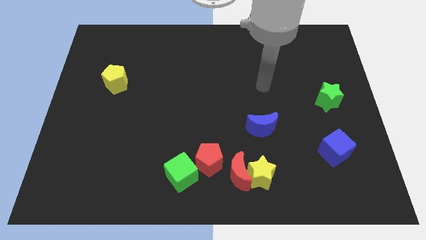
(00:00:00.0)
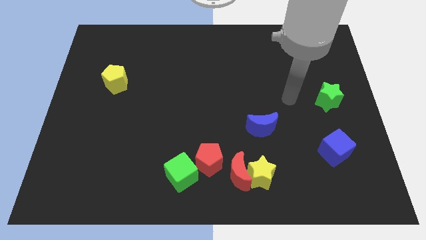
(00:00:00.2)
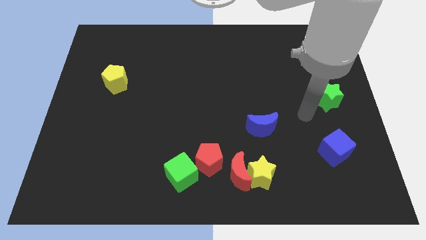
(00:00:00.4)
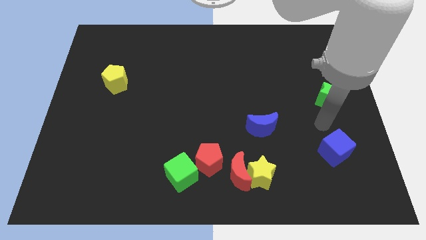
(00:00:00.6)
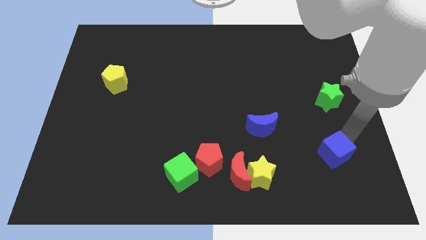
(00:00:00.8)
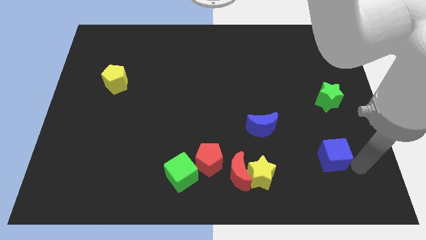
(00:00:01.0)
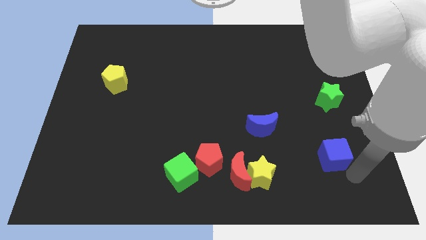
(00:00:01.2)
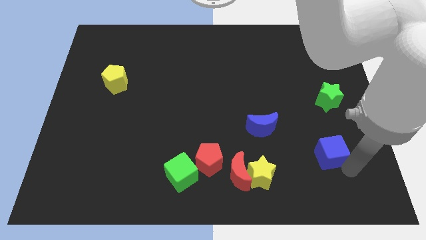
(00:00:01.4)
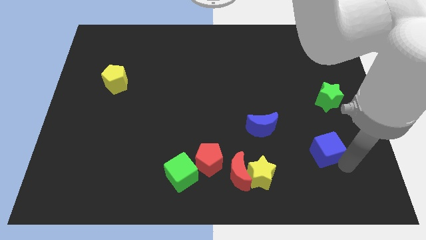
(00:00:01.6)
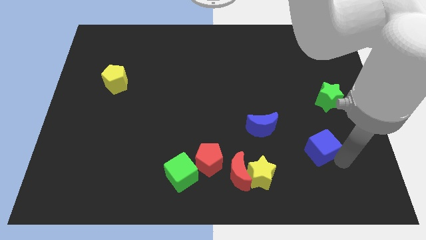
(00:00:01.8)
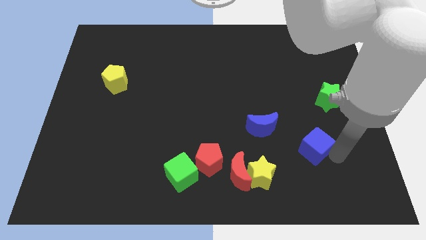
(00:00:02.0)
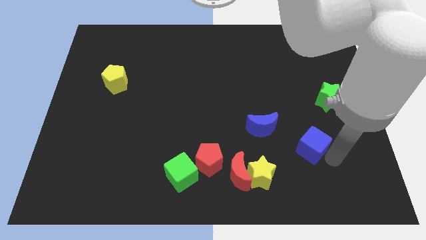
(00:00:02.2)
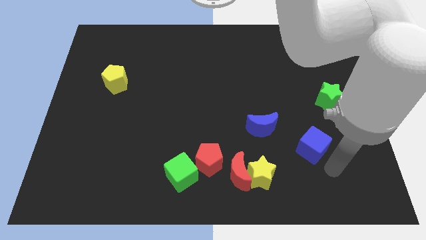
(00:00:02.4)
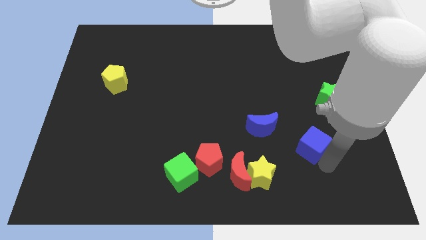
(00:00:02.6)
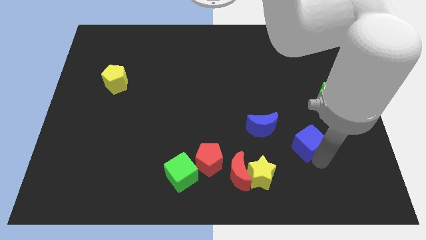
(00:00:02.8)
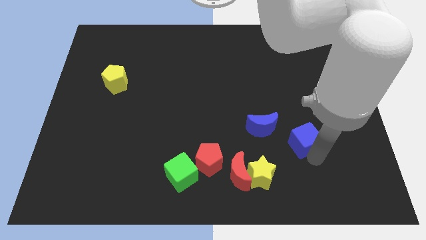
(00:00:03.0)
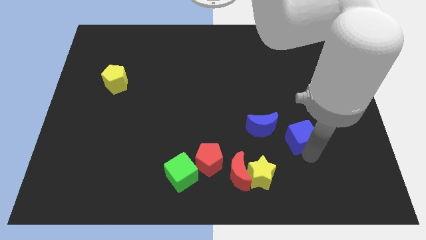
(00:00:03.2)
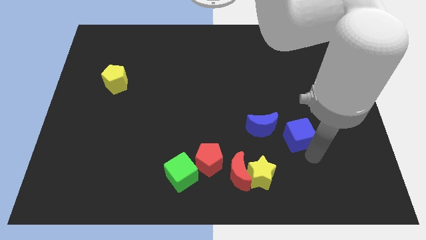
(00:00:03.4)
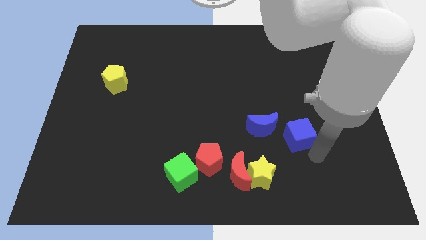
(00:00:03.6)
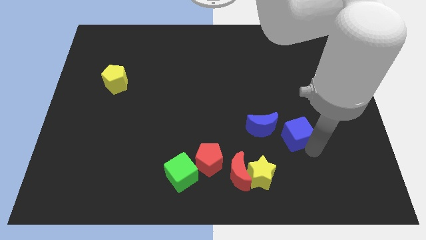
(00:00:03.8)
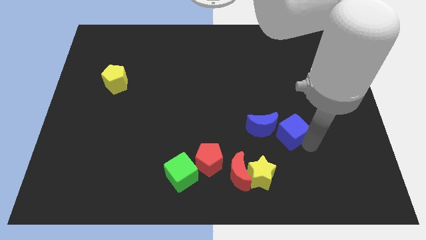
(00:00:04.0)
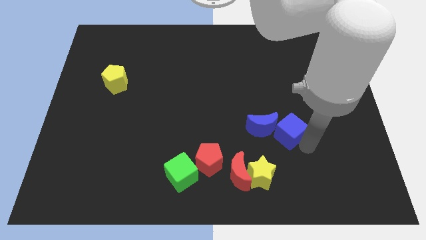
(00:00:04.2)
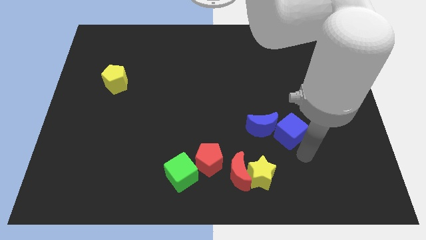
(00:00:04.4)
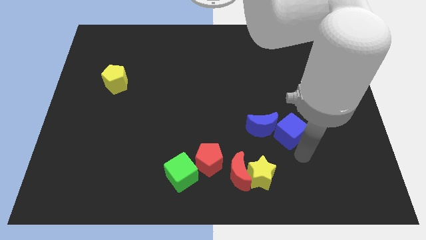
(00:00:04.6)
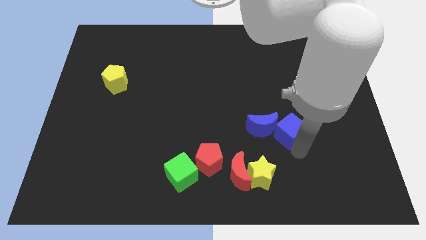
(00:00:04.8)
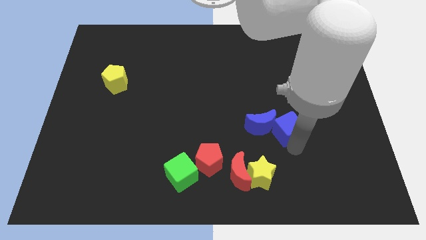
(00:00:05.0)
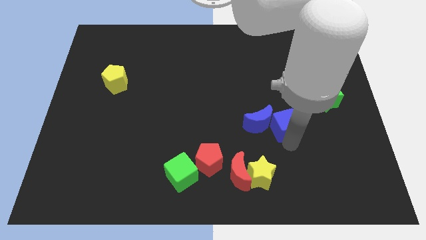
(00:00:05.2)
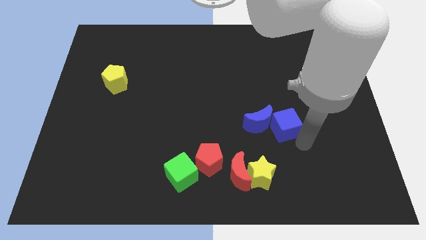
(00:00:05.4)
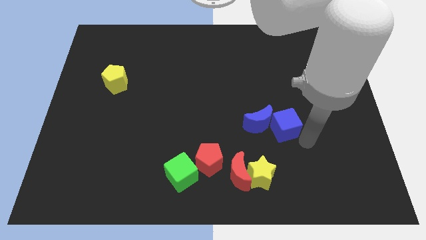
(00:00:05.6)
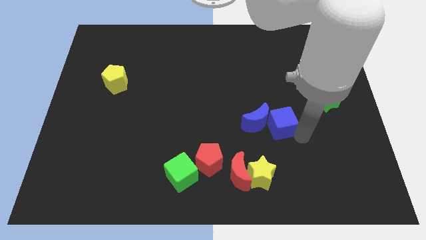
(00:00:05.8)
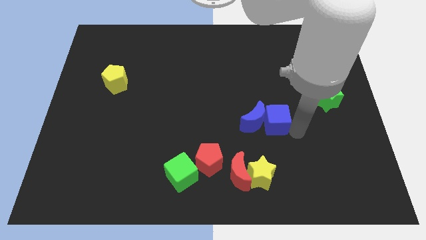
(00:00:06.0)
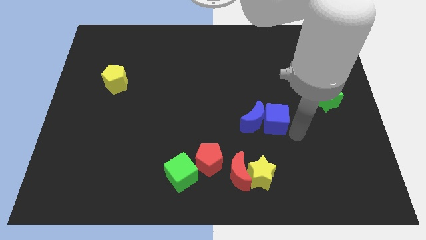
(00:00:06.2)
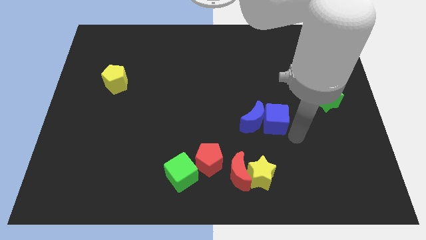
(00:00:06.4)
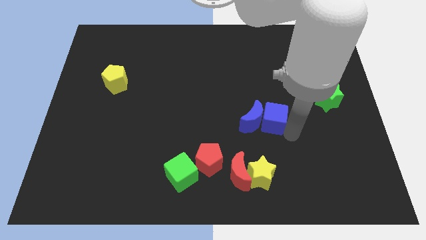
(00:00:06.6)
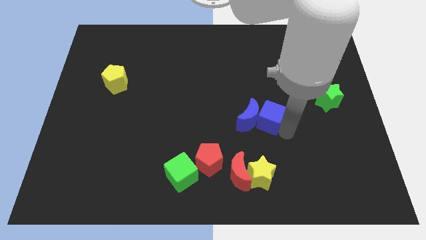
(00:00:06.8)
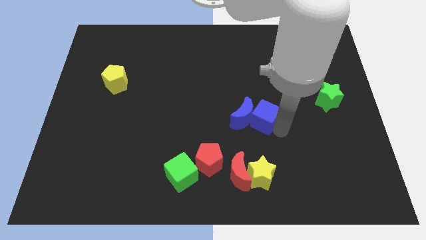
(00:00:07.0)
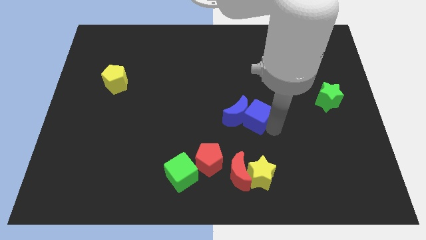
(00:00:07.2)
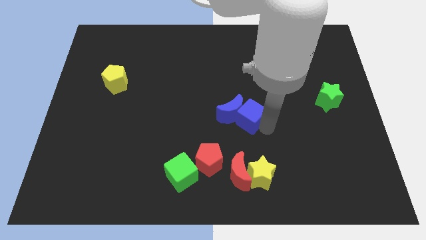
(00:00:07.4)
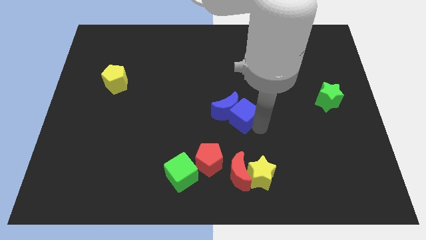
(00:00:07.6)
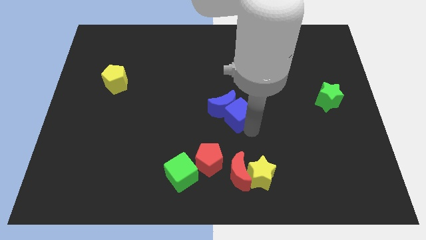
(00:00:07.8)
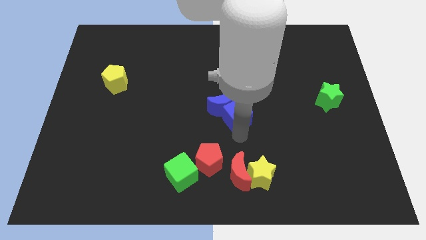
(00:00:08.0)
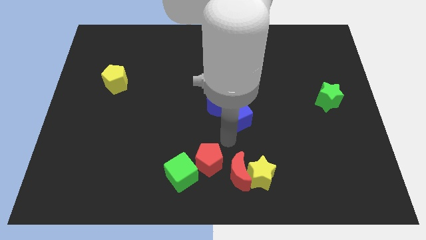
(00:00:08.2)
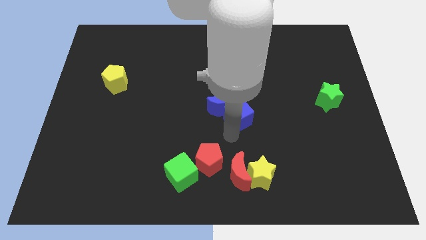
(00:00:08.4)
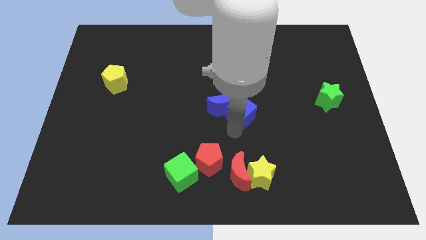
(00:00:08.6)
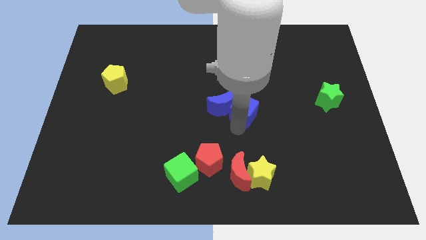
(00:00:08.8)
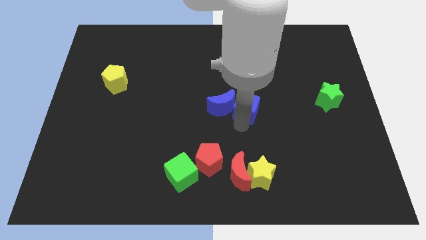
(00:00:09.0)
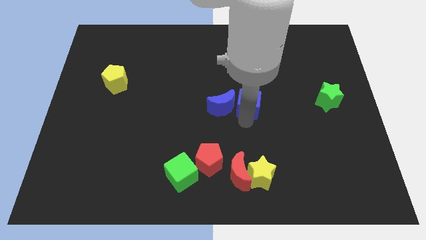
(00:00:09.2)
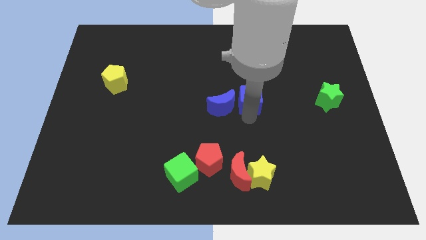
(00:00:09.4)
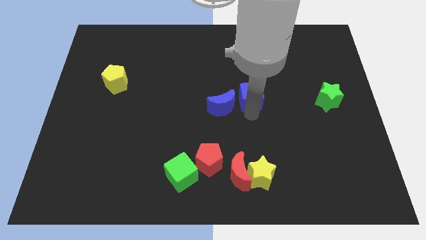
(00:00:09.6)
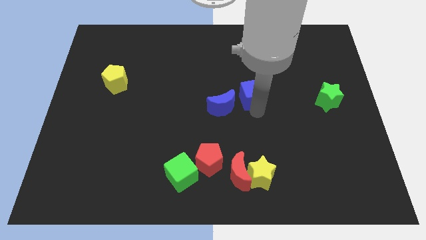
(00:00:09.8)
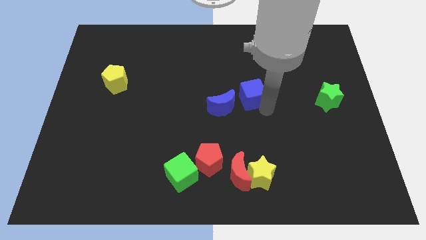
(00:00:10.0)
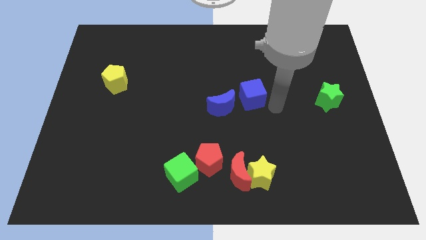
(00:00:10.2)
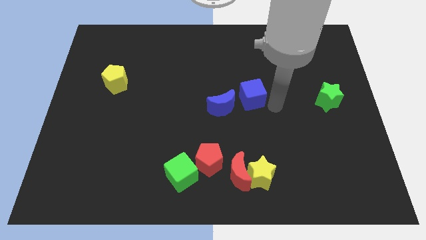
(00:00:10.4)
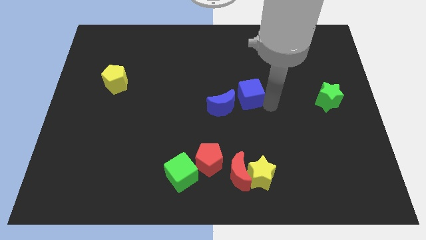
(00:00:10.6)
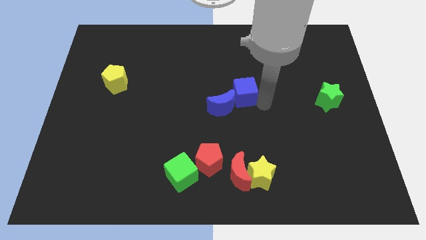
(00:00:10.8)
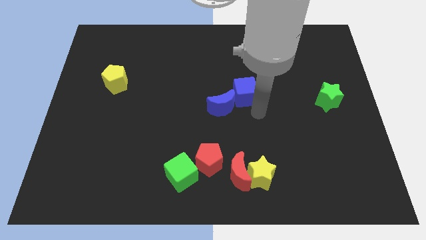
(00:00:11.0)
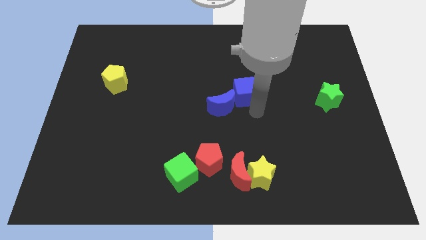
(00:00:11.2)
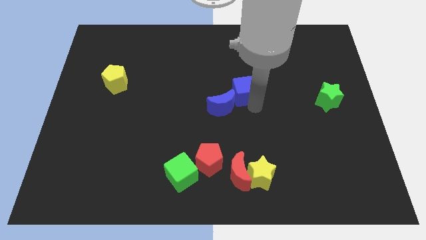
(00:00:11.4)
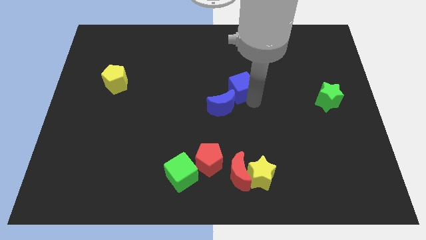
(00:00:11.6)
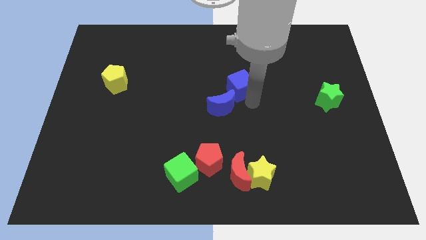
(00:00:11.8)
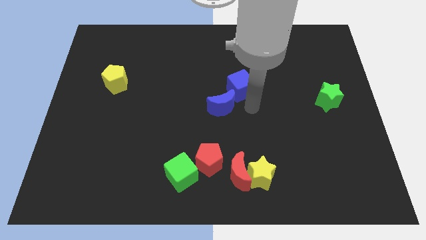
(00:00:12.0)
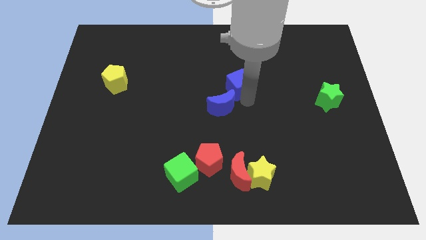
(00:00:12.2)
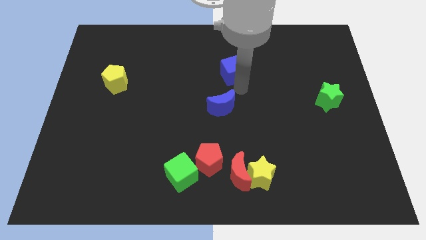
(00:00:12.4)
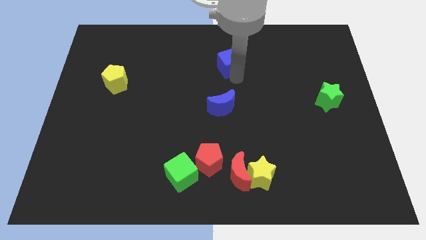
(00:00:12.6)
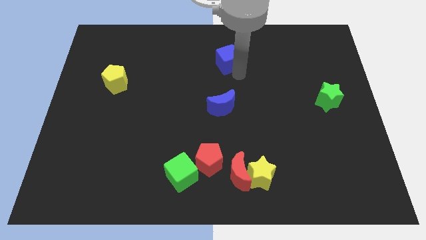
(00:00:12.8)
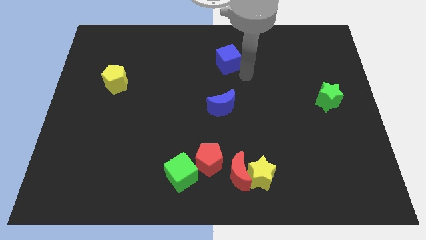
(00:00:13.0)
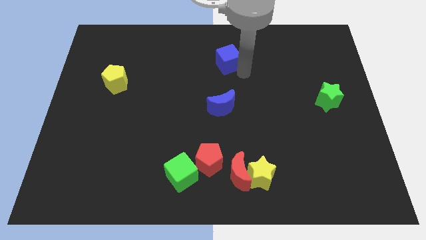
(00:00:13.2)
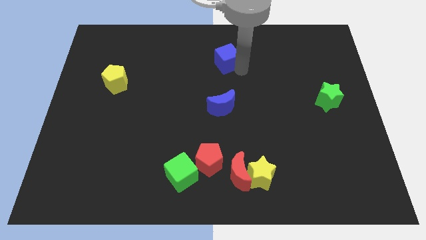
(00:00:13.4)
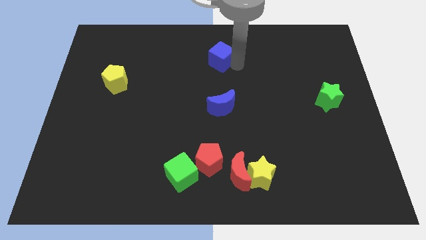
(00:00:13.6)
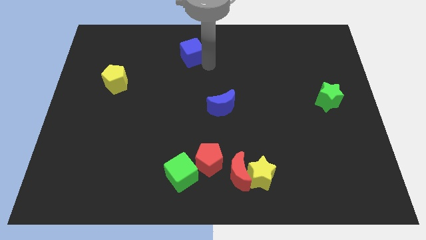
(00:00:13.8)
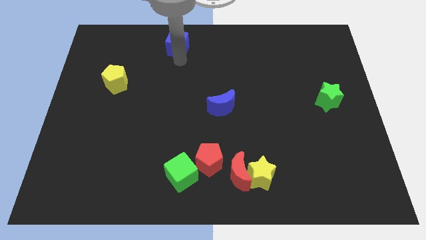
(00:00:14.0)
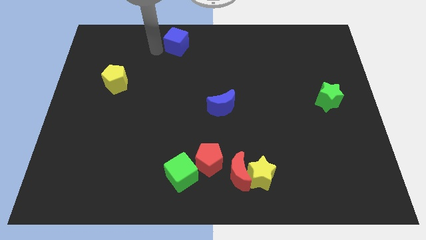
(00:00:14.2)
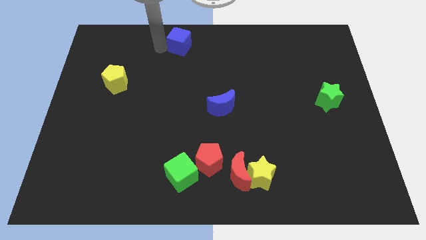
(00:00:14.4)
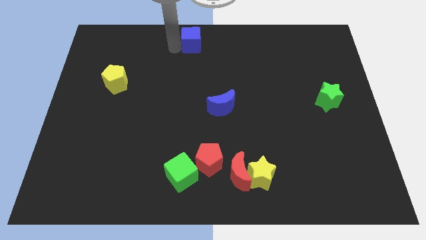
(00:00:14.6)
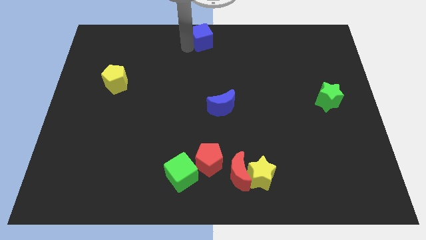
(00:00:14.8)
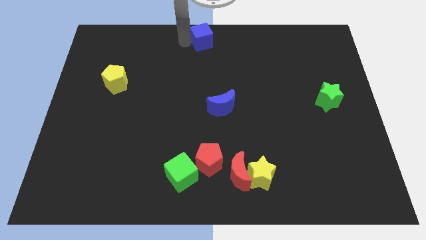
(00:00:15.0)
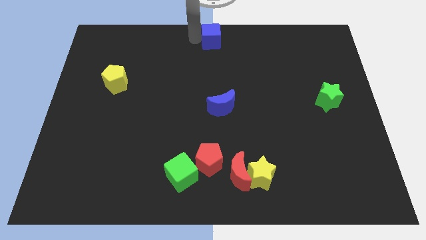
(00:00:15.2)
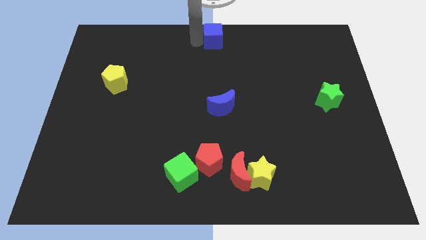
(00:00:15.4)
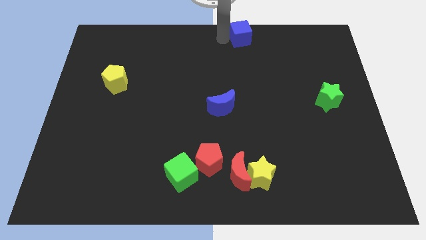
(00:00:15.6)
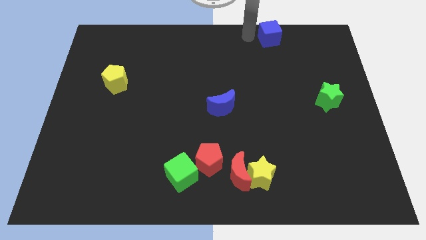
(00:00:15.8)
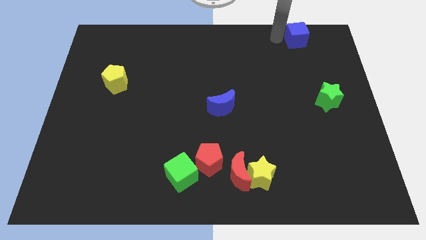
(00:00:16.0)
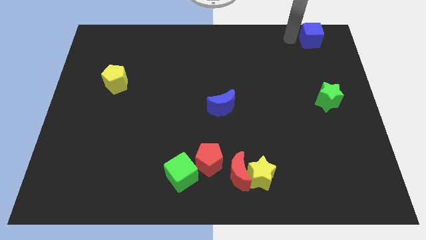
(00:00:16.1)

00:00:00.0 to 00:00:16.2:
put the blue cube to the top right of the board
